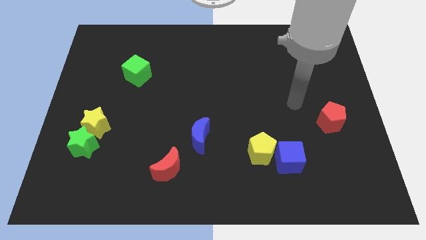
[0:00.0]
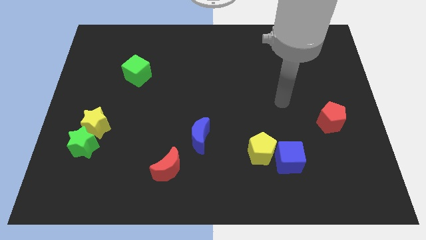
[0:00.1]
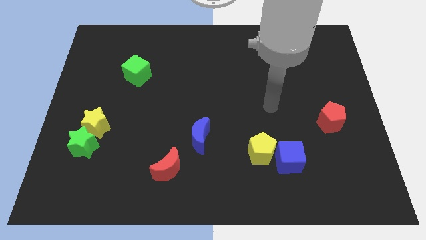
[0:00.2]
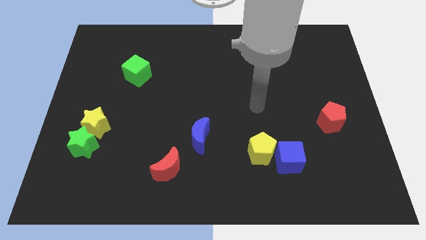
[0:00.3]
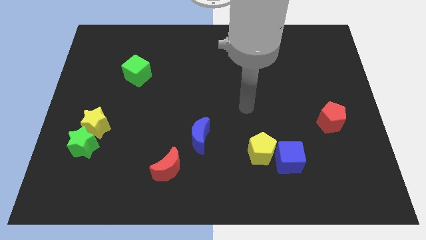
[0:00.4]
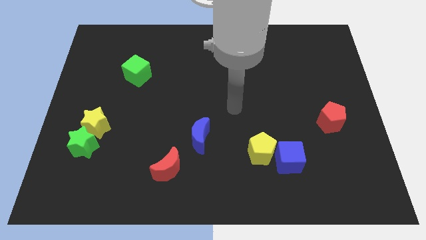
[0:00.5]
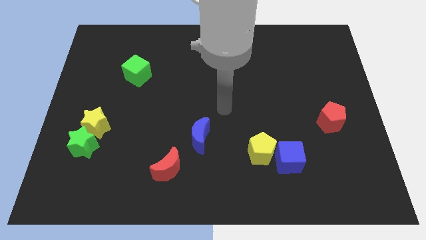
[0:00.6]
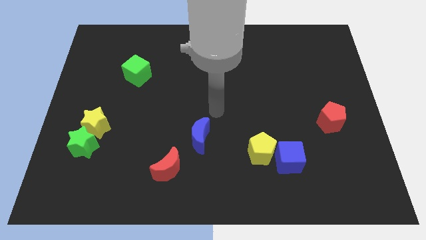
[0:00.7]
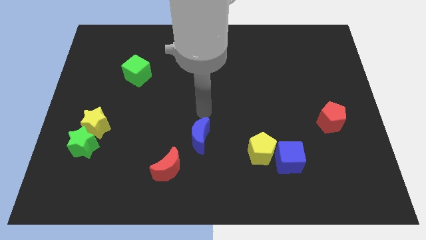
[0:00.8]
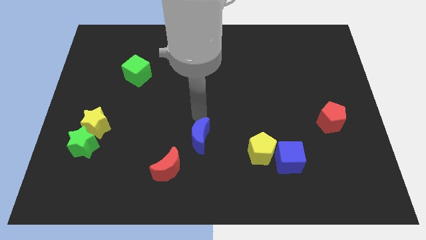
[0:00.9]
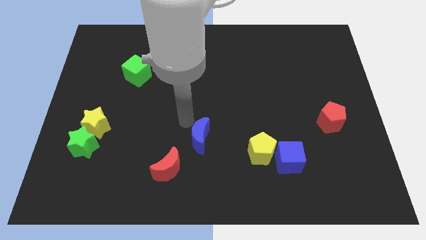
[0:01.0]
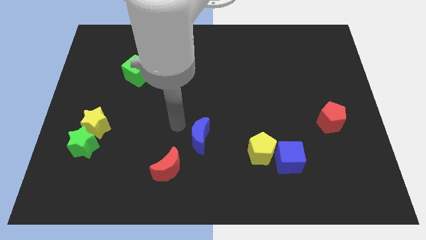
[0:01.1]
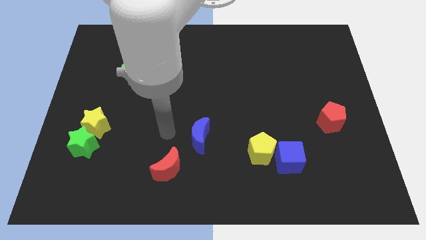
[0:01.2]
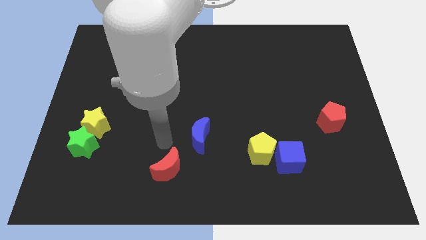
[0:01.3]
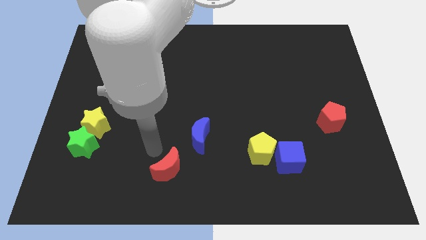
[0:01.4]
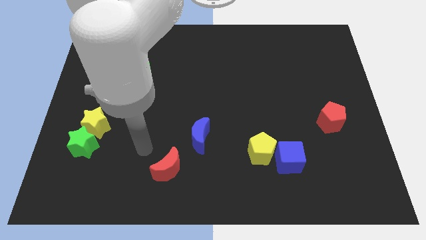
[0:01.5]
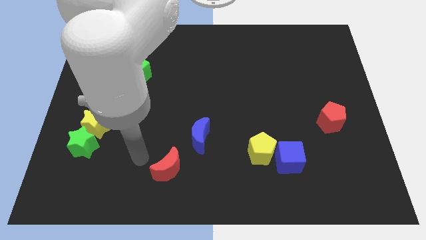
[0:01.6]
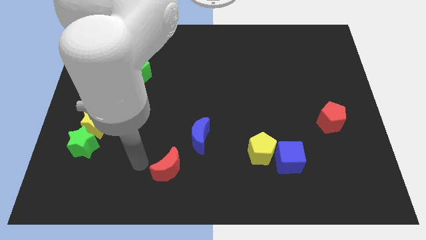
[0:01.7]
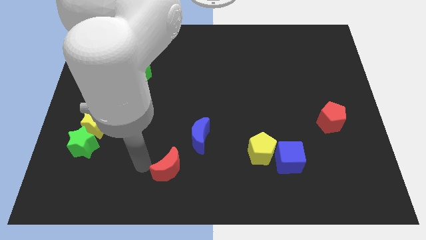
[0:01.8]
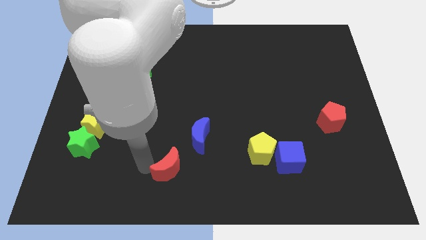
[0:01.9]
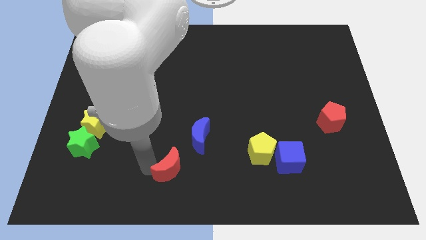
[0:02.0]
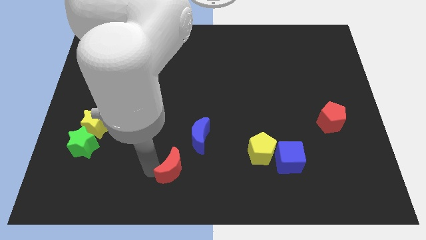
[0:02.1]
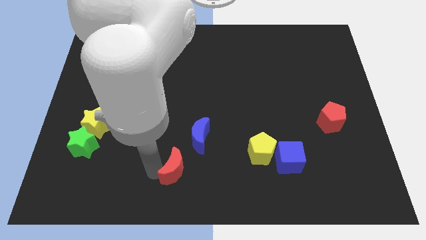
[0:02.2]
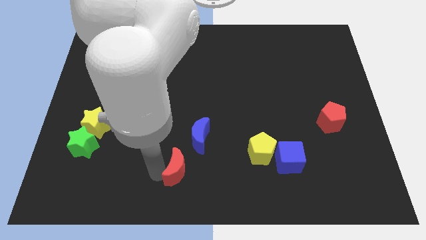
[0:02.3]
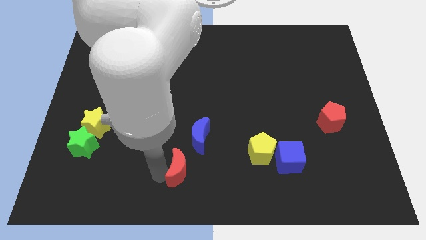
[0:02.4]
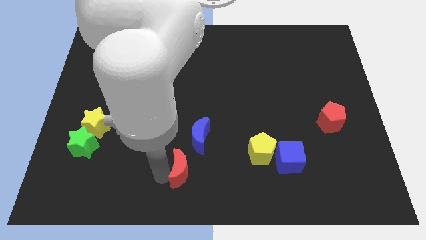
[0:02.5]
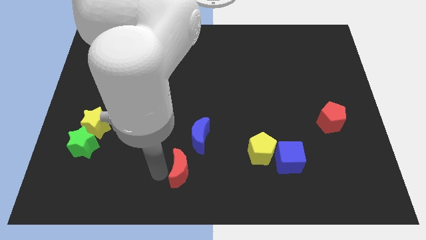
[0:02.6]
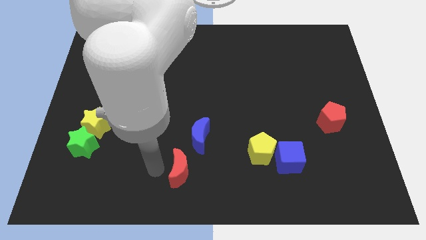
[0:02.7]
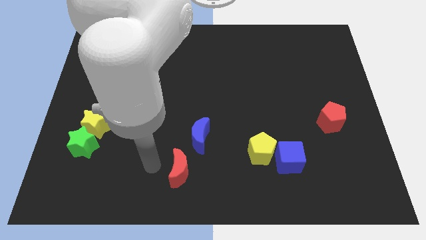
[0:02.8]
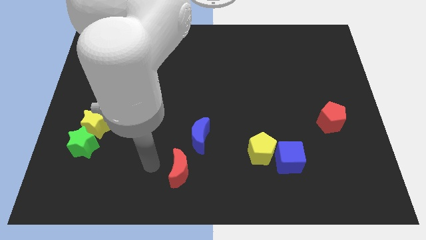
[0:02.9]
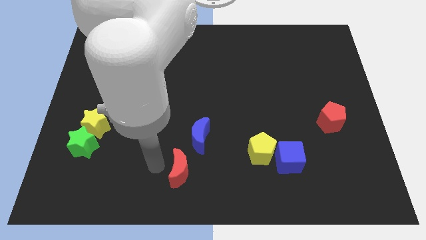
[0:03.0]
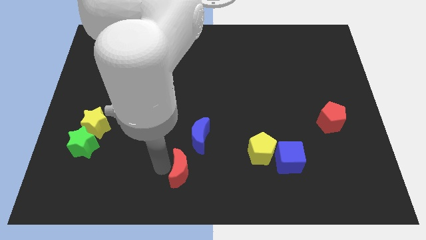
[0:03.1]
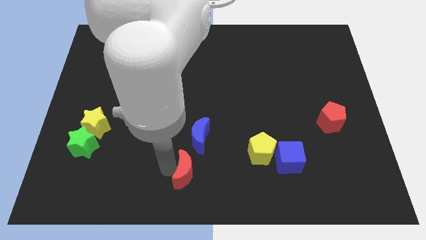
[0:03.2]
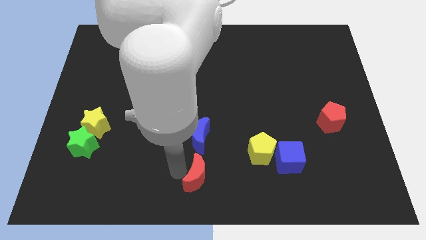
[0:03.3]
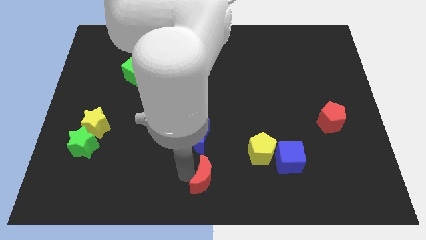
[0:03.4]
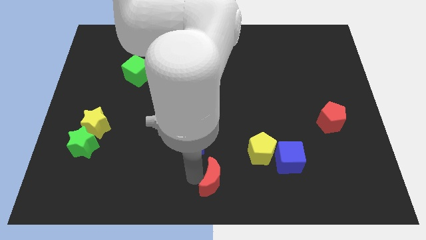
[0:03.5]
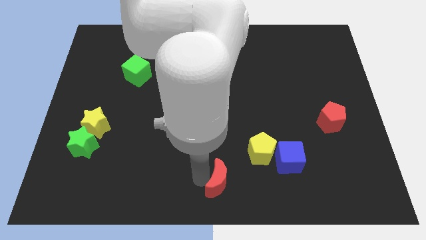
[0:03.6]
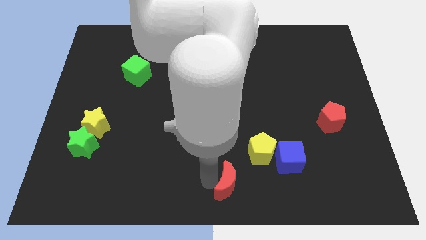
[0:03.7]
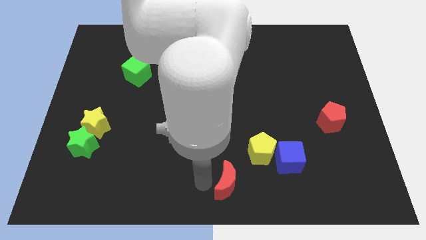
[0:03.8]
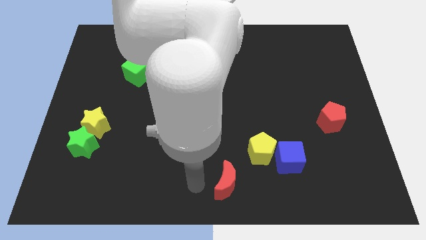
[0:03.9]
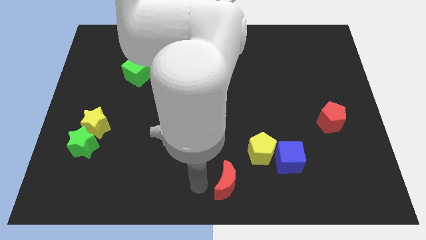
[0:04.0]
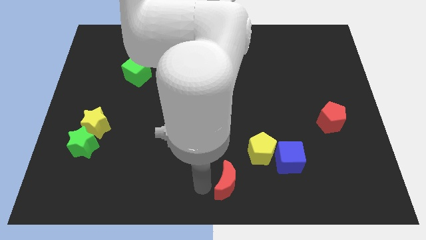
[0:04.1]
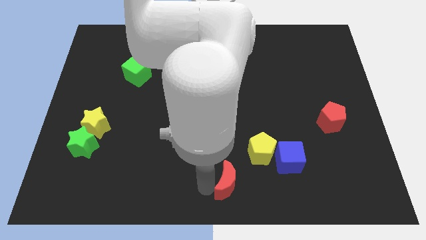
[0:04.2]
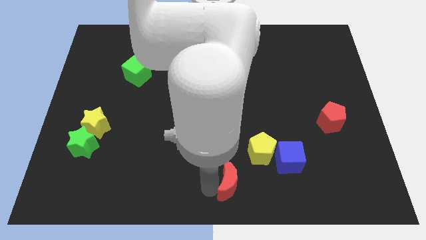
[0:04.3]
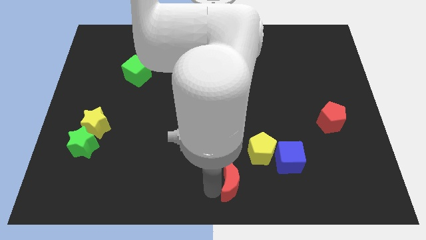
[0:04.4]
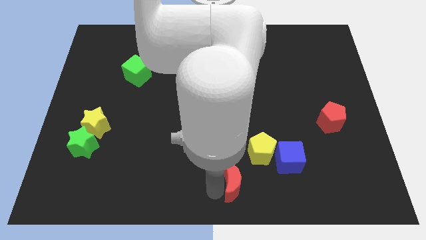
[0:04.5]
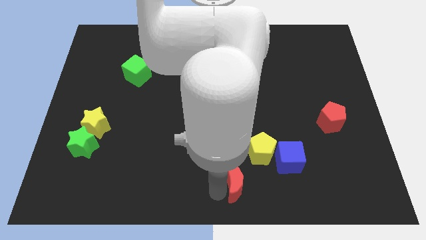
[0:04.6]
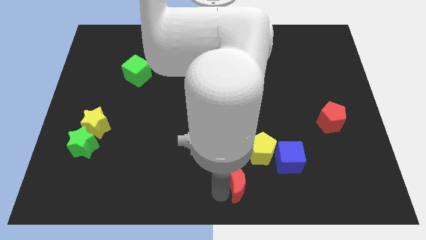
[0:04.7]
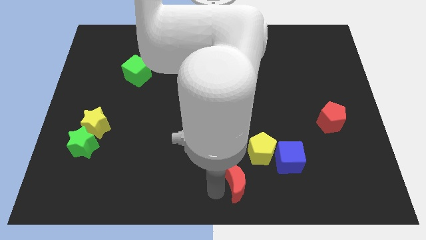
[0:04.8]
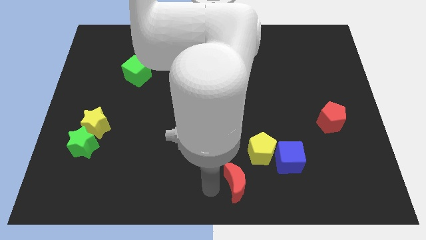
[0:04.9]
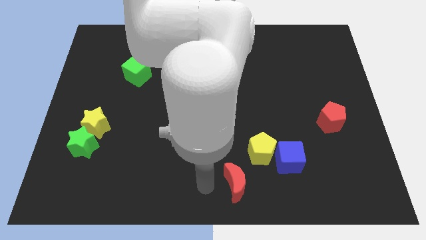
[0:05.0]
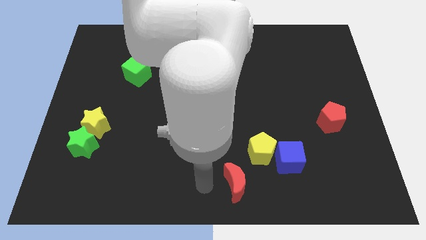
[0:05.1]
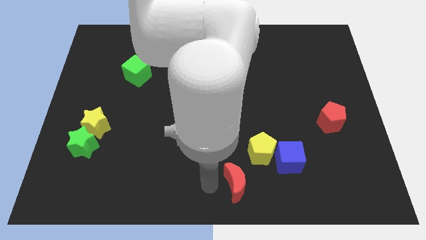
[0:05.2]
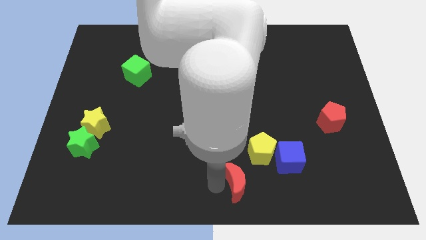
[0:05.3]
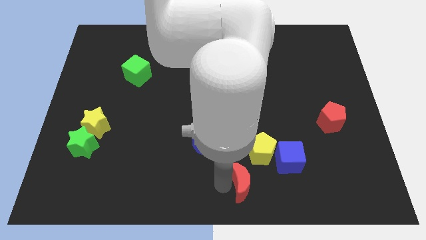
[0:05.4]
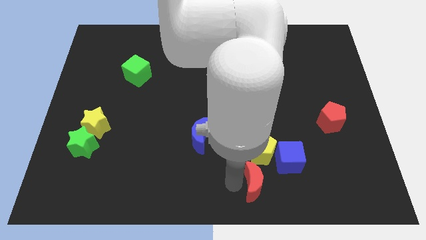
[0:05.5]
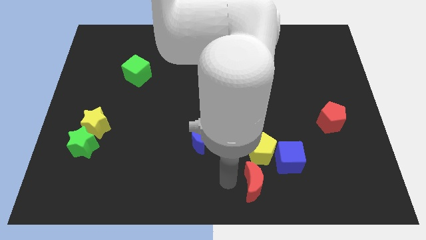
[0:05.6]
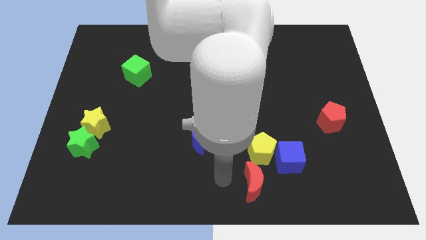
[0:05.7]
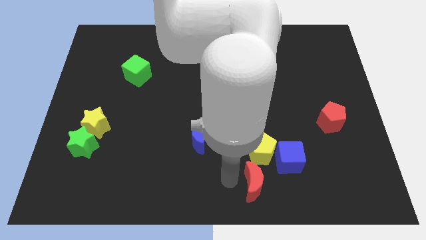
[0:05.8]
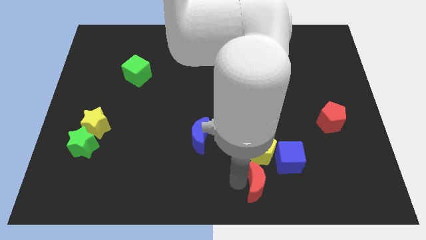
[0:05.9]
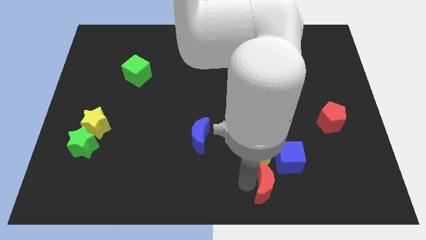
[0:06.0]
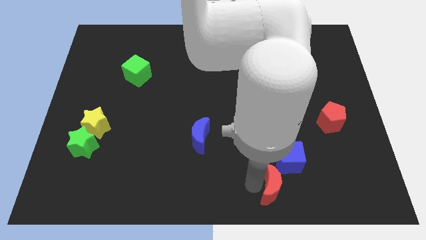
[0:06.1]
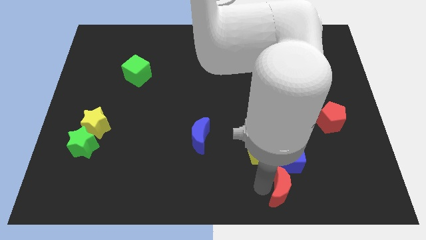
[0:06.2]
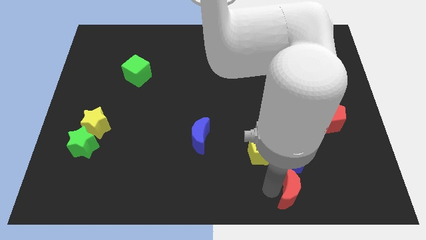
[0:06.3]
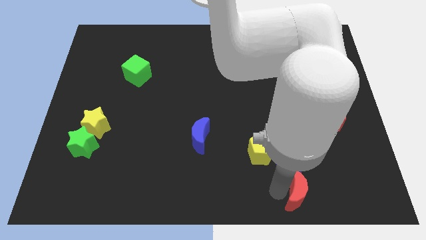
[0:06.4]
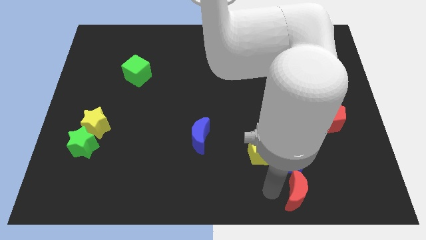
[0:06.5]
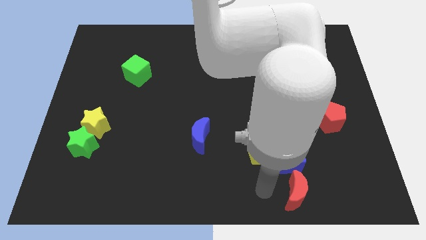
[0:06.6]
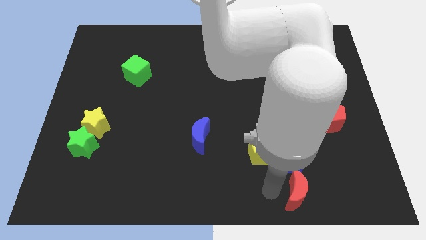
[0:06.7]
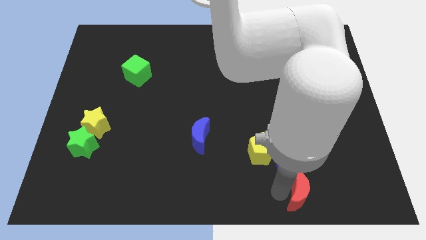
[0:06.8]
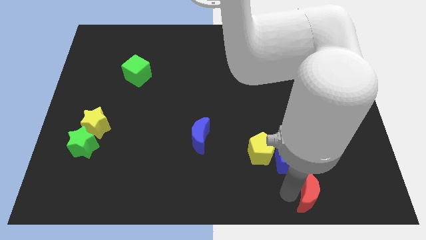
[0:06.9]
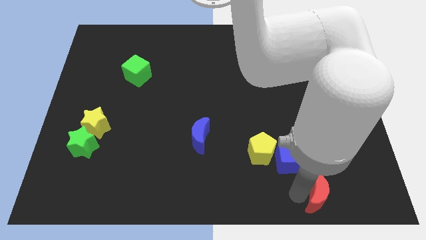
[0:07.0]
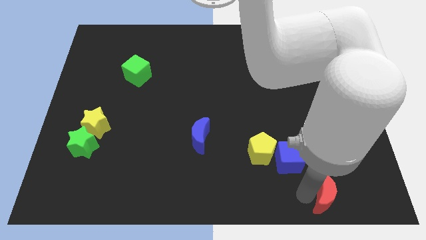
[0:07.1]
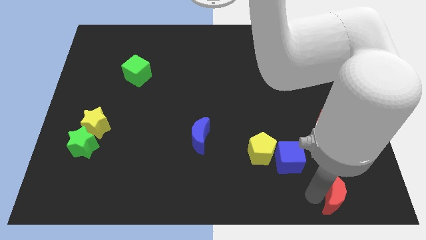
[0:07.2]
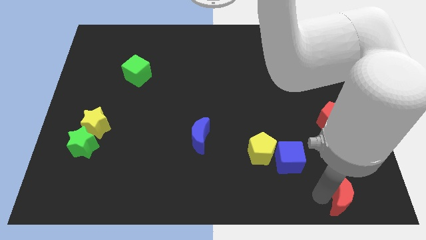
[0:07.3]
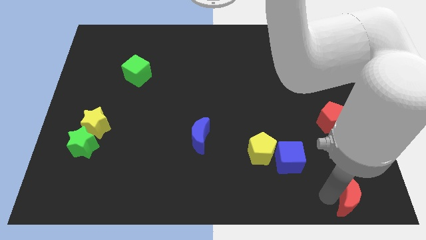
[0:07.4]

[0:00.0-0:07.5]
push the red moon to the lower right corner
